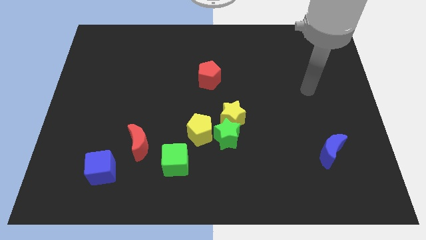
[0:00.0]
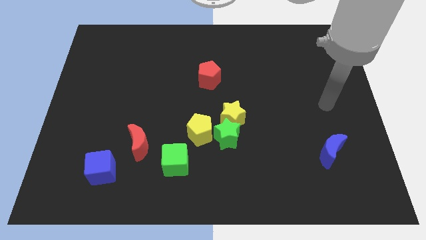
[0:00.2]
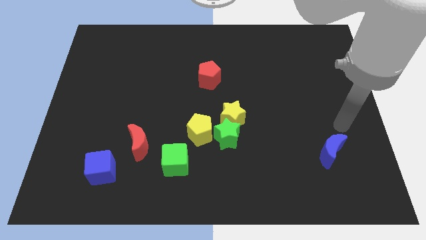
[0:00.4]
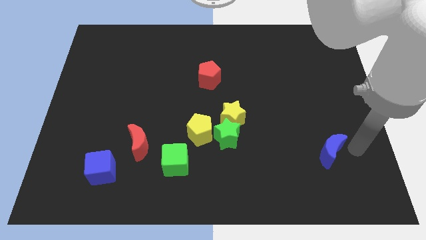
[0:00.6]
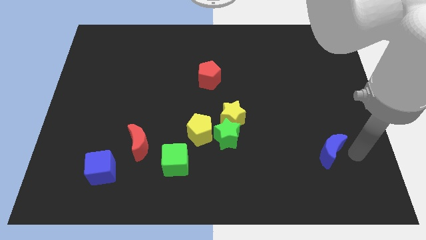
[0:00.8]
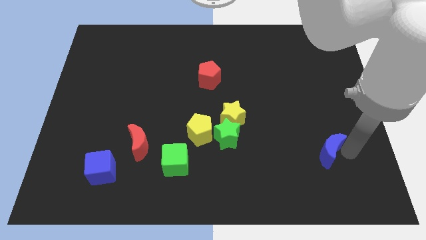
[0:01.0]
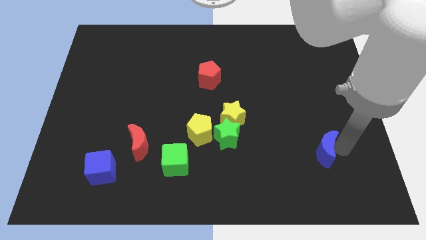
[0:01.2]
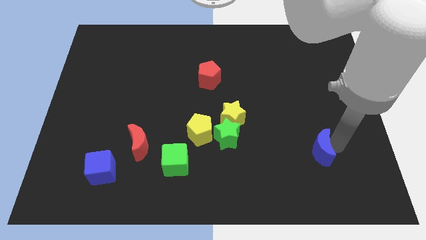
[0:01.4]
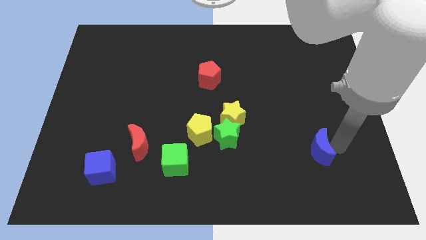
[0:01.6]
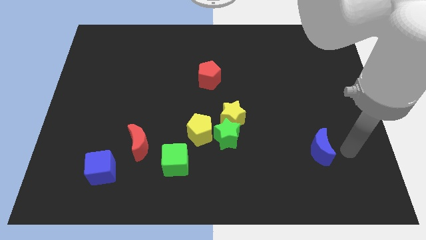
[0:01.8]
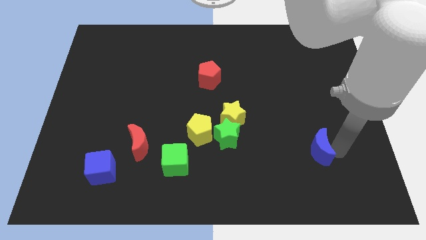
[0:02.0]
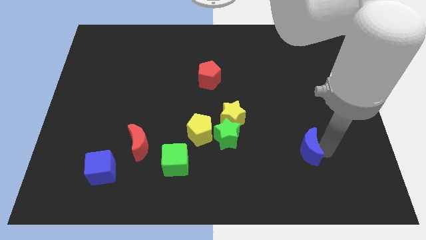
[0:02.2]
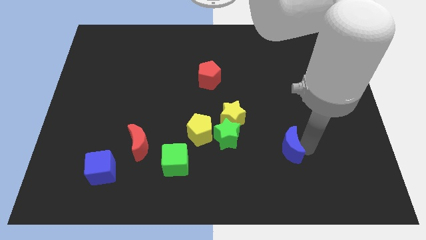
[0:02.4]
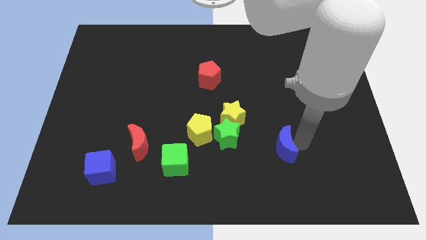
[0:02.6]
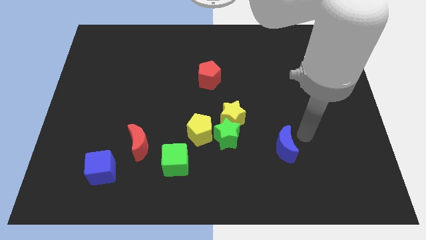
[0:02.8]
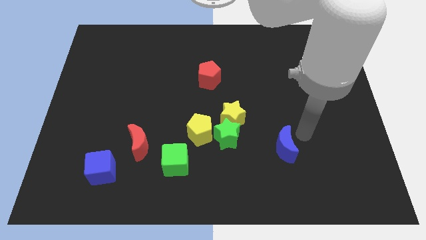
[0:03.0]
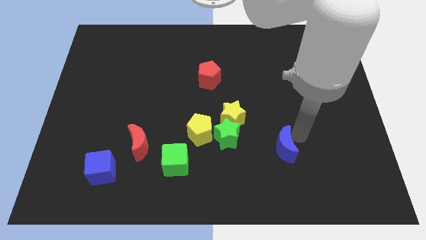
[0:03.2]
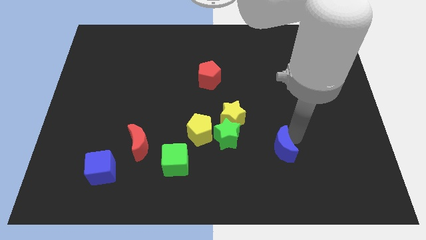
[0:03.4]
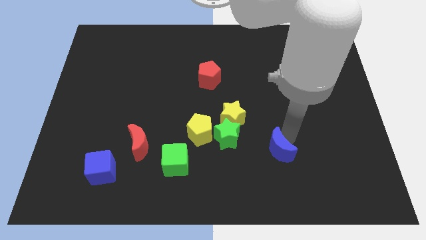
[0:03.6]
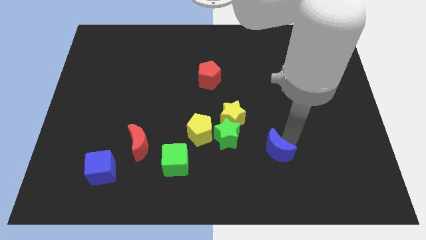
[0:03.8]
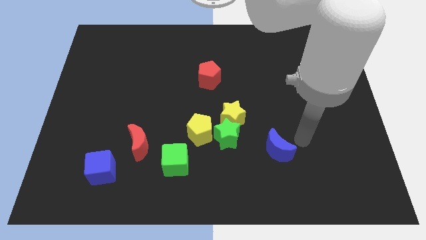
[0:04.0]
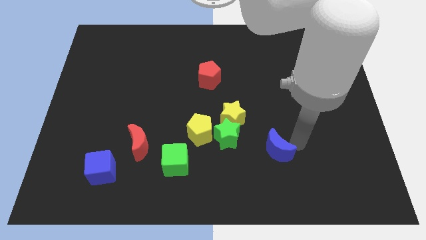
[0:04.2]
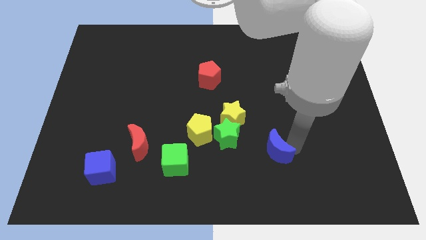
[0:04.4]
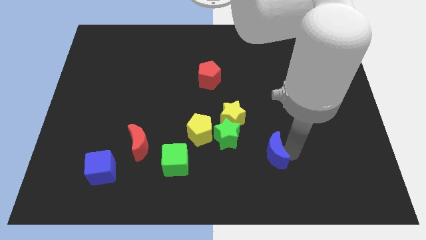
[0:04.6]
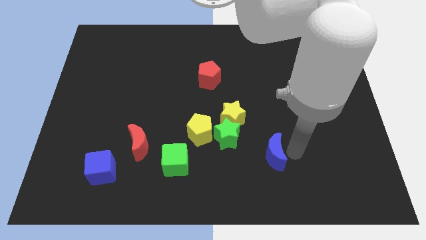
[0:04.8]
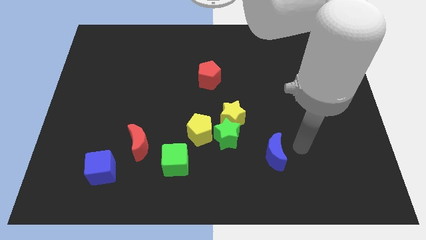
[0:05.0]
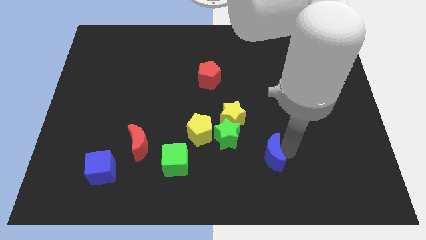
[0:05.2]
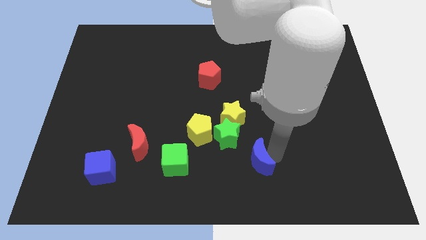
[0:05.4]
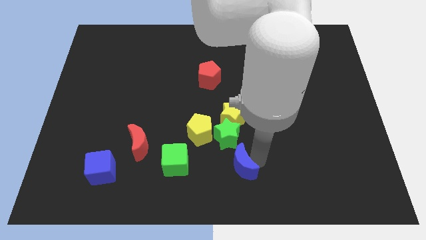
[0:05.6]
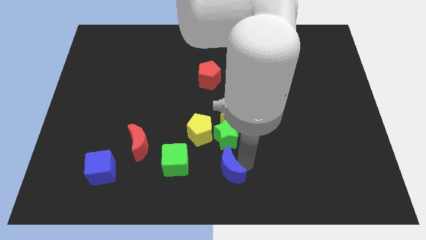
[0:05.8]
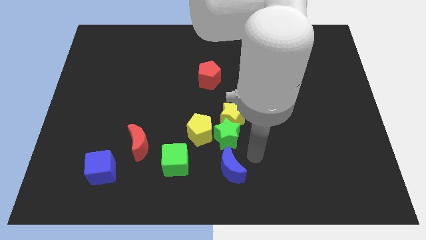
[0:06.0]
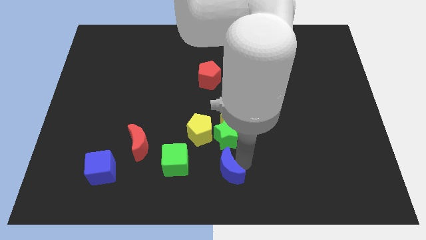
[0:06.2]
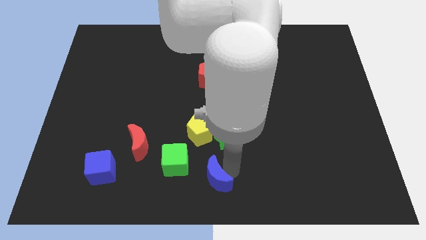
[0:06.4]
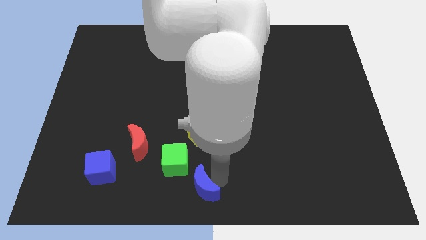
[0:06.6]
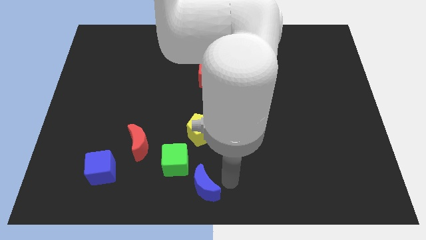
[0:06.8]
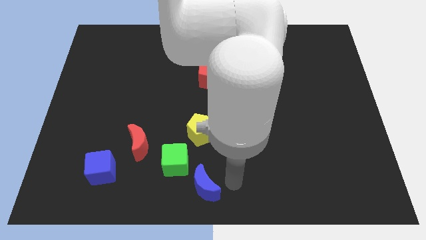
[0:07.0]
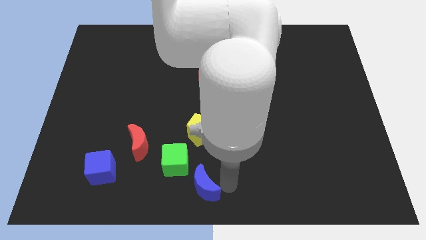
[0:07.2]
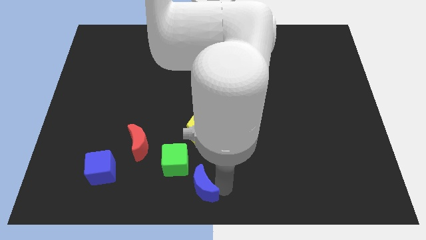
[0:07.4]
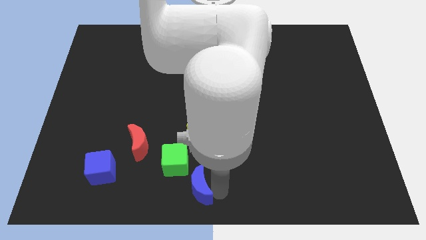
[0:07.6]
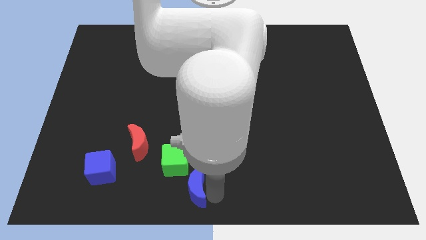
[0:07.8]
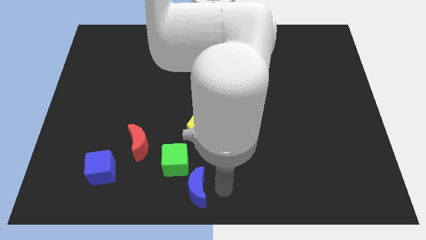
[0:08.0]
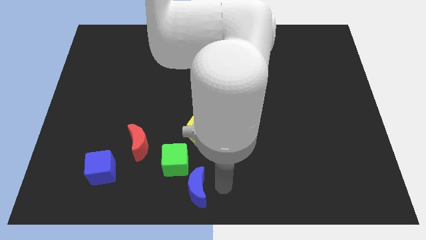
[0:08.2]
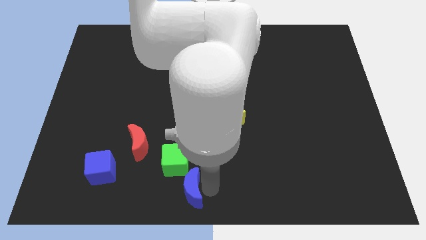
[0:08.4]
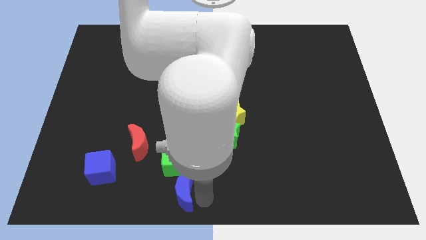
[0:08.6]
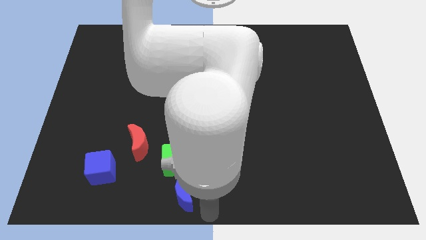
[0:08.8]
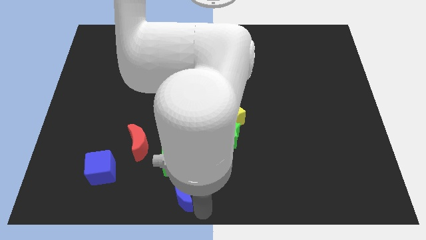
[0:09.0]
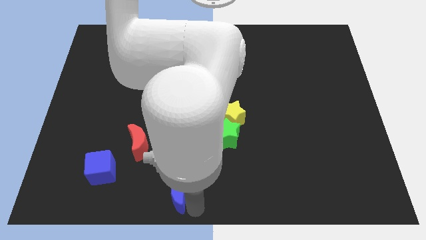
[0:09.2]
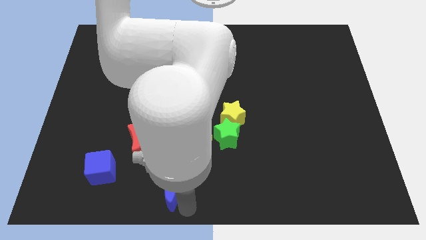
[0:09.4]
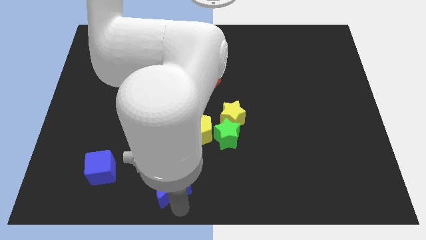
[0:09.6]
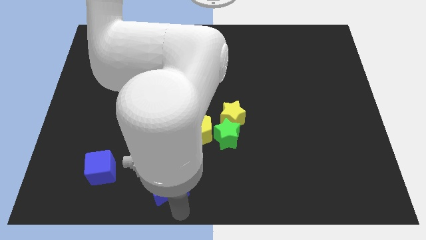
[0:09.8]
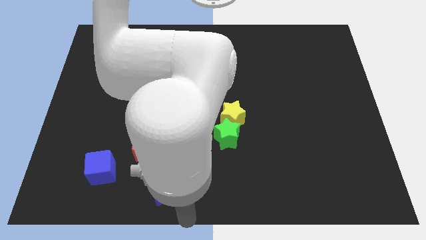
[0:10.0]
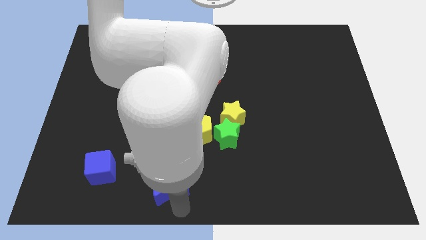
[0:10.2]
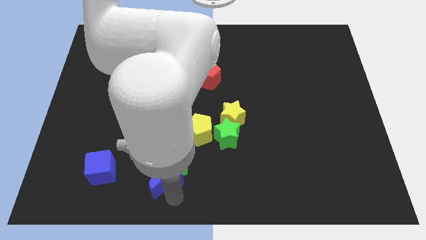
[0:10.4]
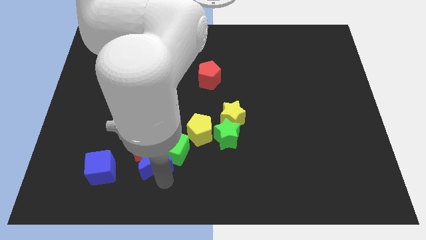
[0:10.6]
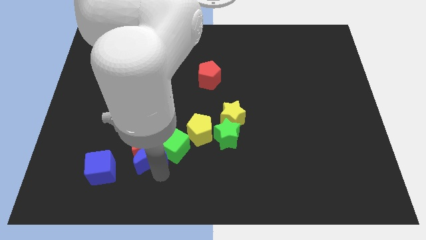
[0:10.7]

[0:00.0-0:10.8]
push the blue moon next to the red moon

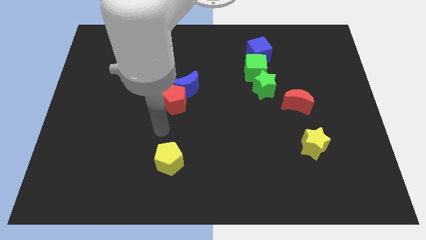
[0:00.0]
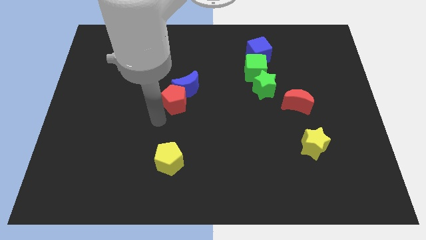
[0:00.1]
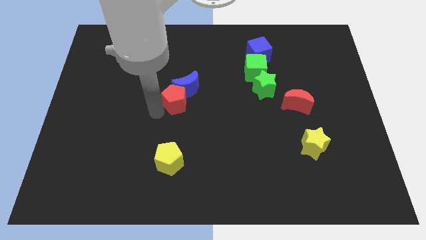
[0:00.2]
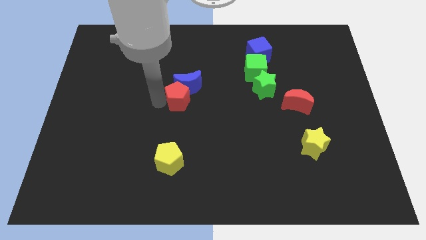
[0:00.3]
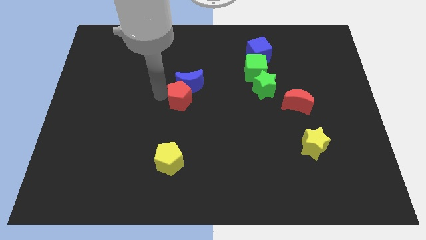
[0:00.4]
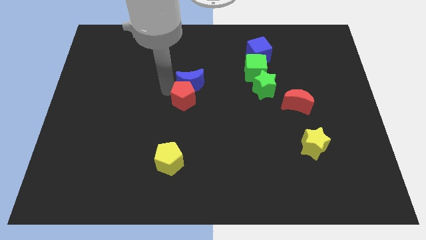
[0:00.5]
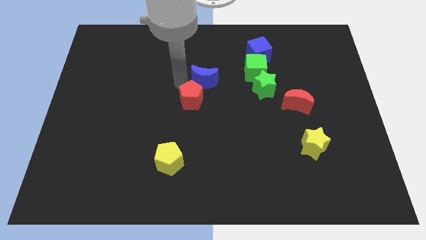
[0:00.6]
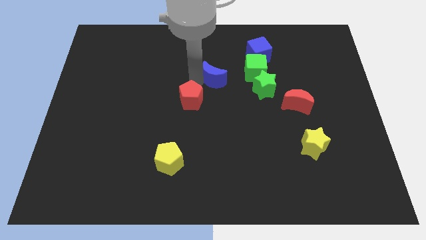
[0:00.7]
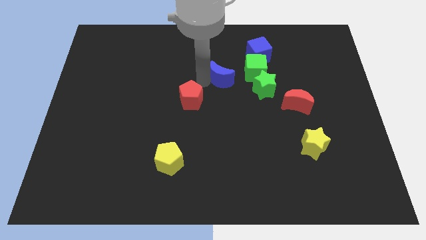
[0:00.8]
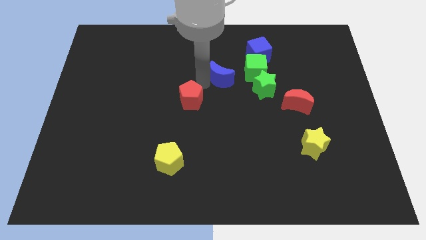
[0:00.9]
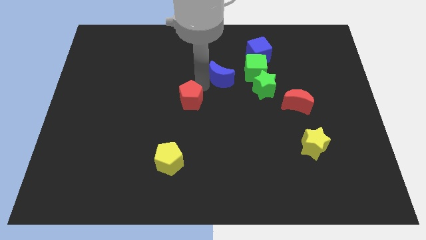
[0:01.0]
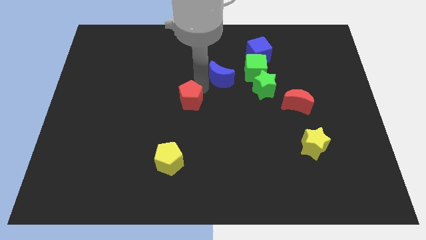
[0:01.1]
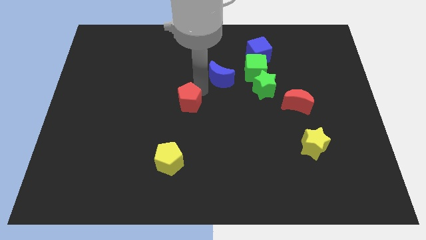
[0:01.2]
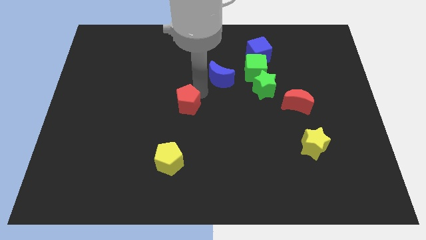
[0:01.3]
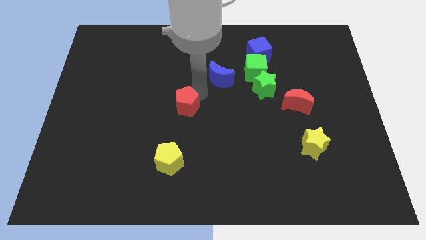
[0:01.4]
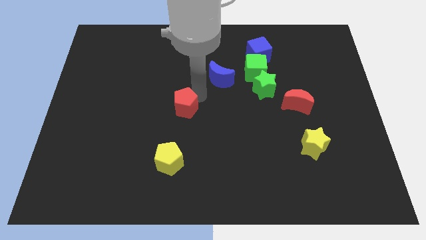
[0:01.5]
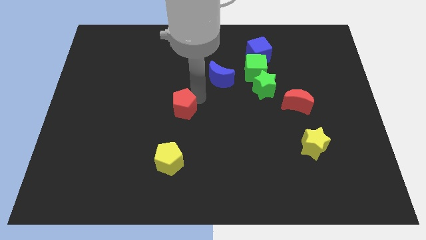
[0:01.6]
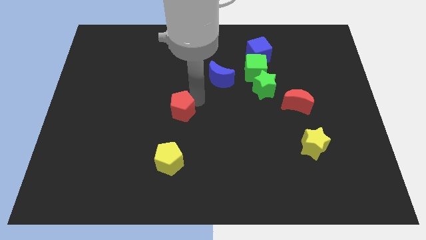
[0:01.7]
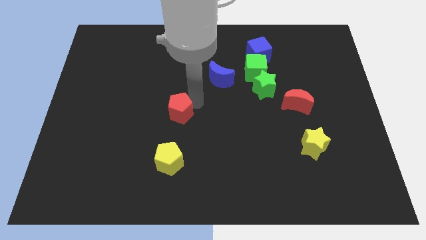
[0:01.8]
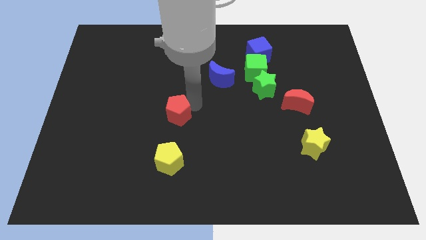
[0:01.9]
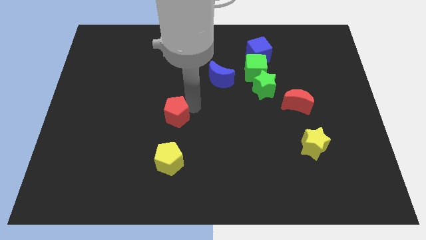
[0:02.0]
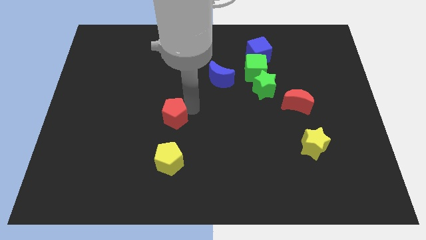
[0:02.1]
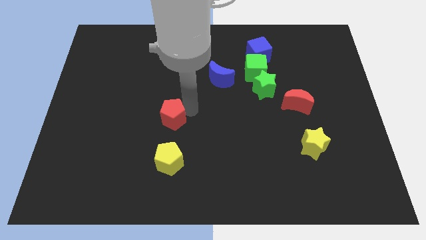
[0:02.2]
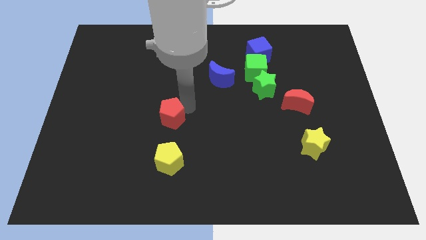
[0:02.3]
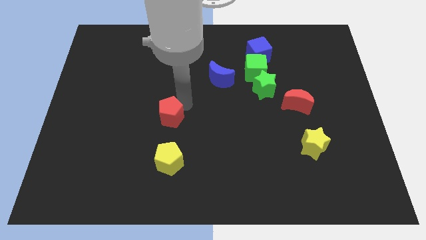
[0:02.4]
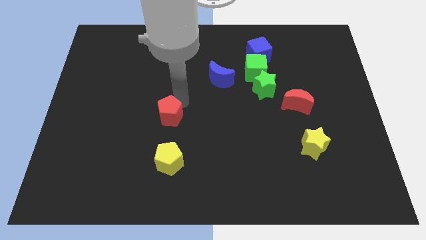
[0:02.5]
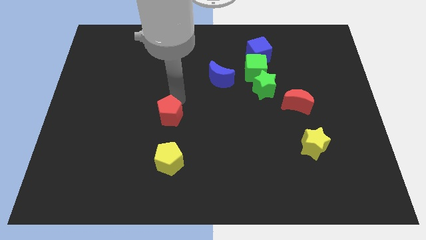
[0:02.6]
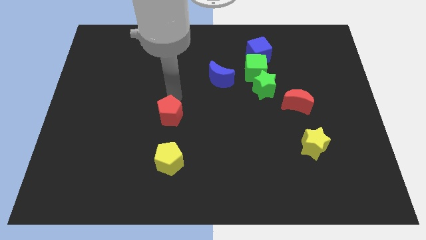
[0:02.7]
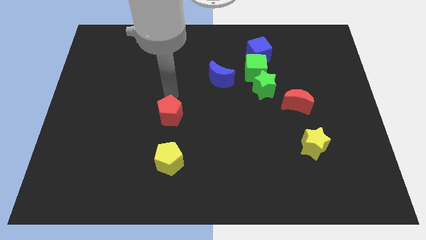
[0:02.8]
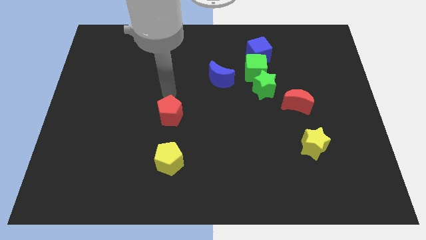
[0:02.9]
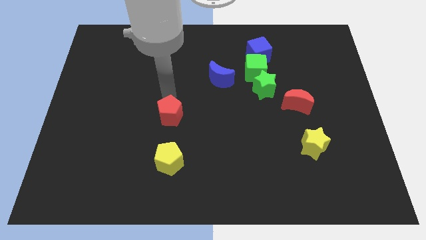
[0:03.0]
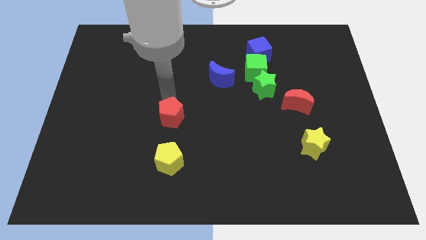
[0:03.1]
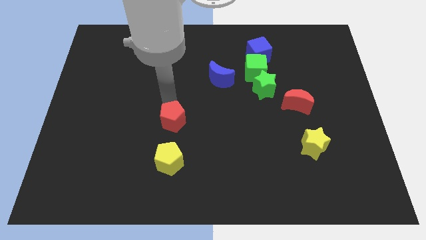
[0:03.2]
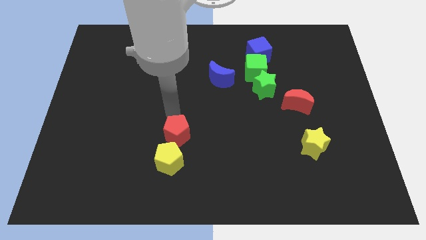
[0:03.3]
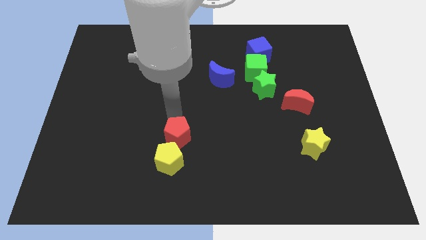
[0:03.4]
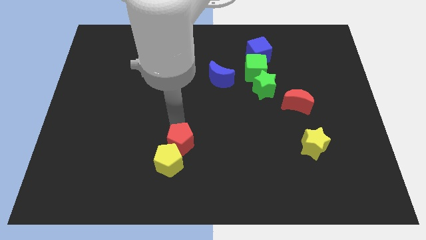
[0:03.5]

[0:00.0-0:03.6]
put the red pentagon next to the yellow pentagon
